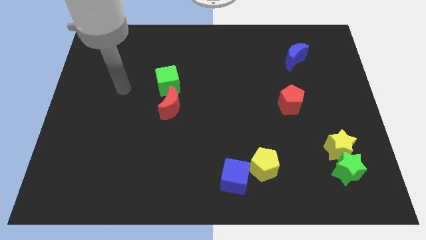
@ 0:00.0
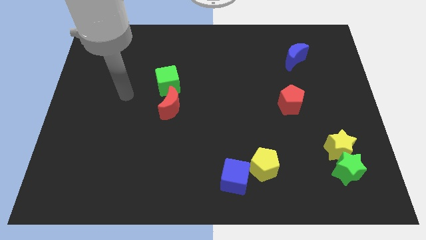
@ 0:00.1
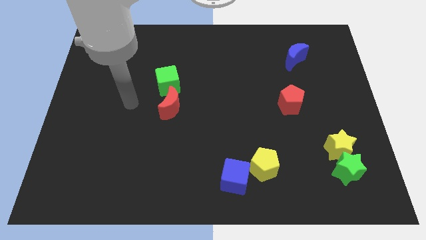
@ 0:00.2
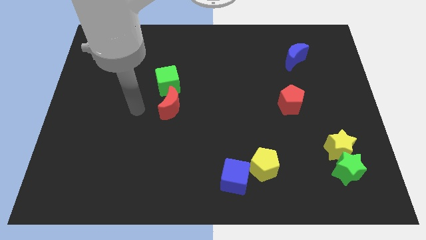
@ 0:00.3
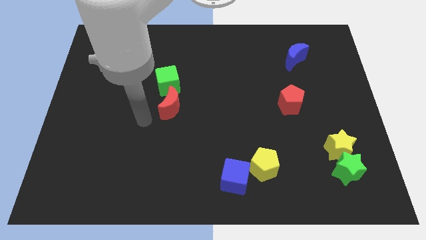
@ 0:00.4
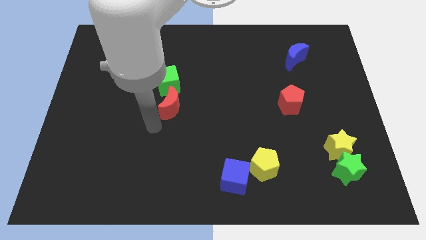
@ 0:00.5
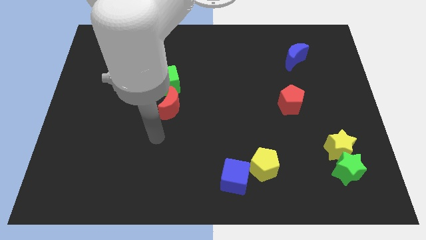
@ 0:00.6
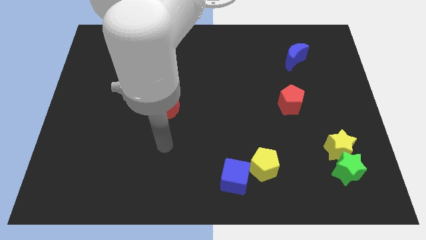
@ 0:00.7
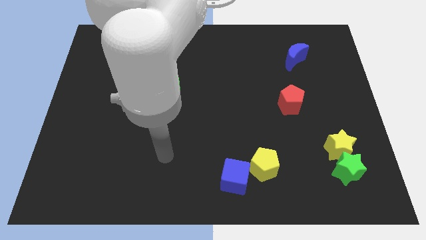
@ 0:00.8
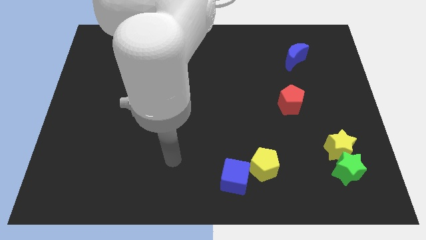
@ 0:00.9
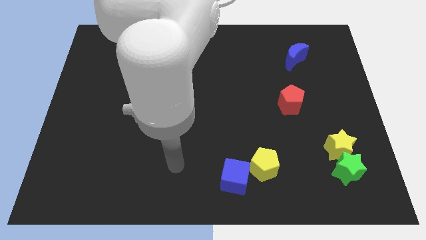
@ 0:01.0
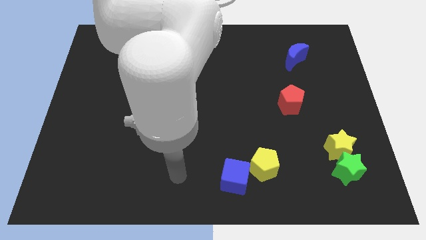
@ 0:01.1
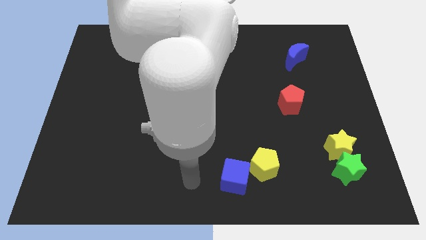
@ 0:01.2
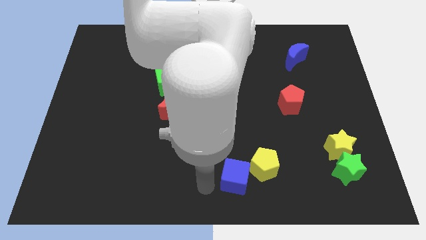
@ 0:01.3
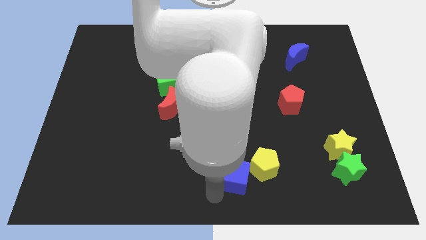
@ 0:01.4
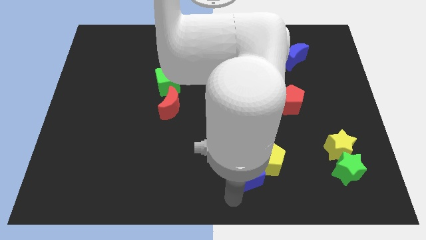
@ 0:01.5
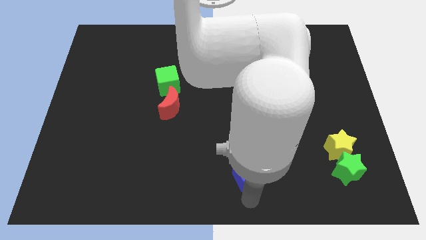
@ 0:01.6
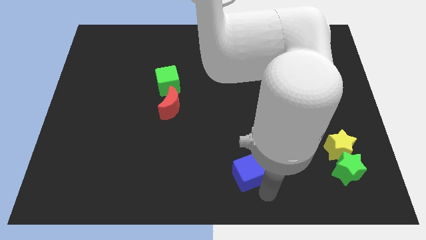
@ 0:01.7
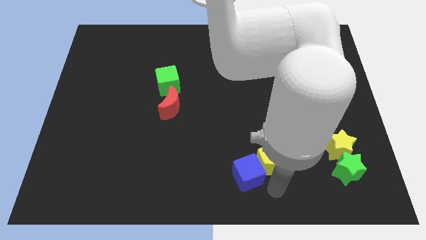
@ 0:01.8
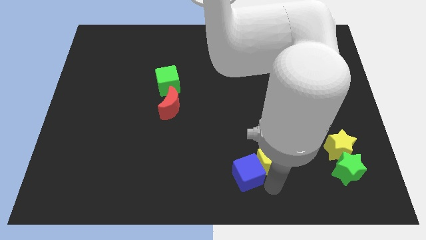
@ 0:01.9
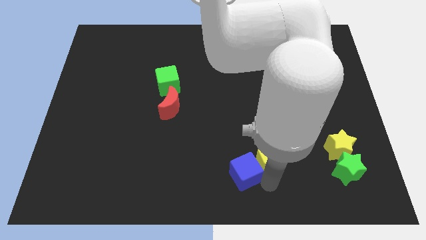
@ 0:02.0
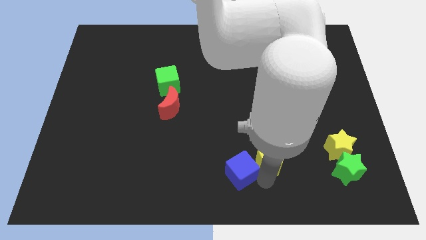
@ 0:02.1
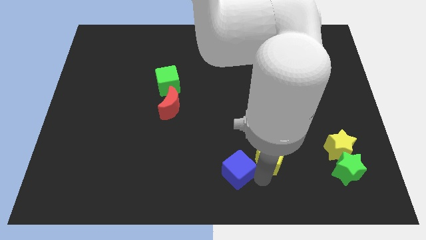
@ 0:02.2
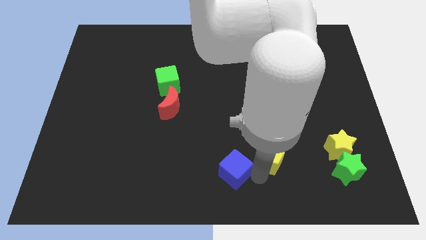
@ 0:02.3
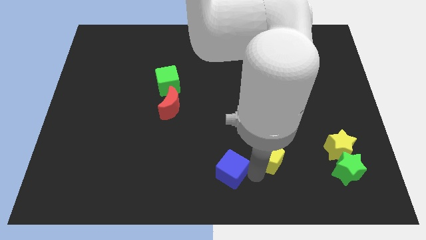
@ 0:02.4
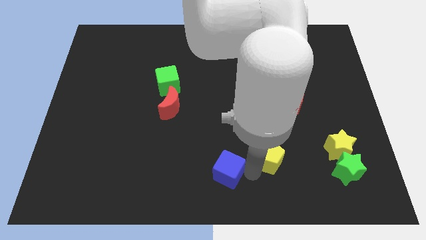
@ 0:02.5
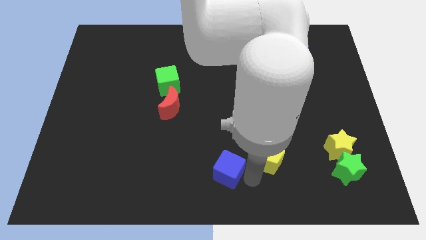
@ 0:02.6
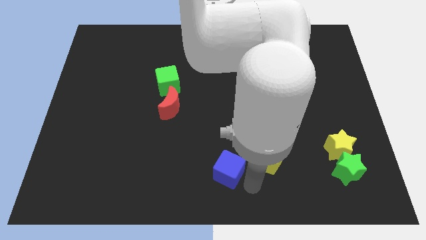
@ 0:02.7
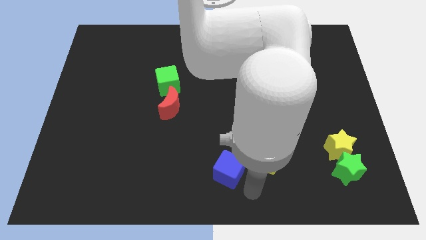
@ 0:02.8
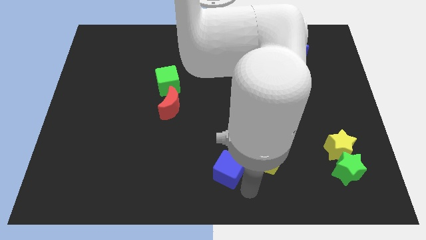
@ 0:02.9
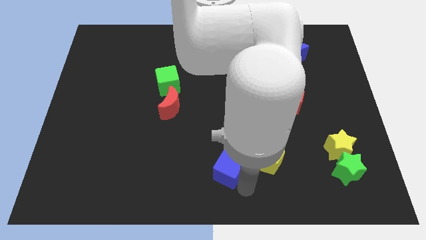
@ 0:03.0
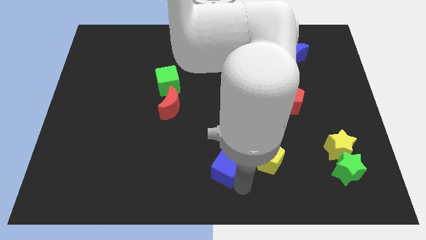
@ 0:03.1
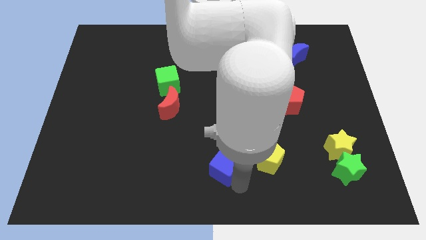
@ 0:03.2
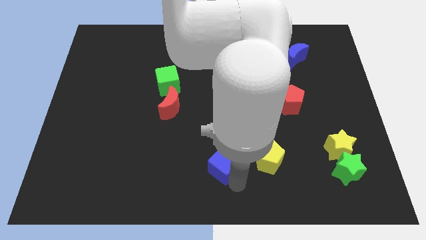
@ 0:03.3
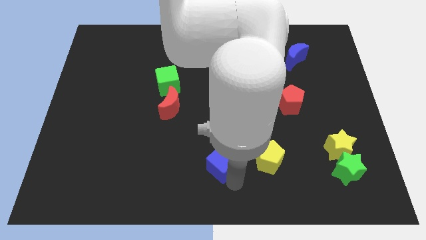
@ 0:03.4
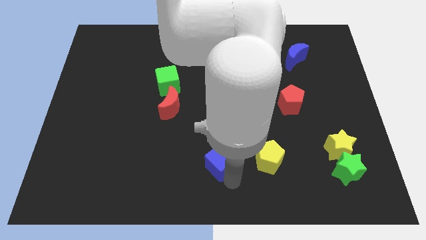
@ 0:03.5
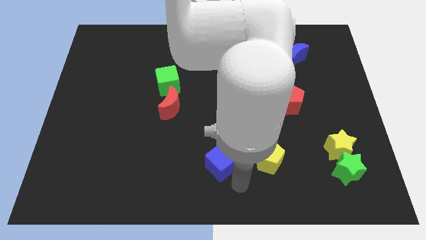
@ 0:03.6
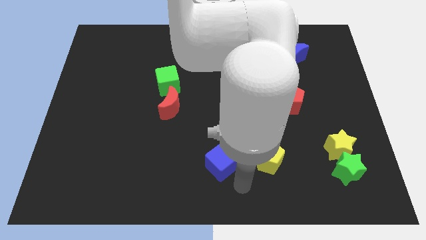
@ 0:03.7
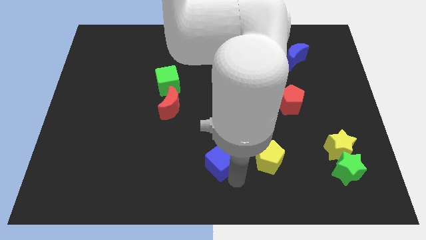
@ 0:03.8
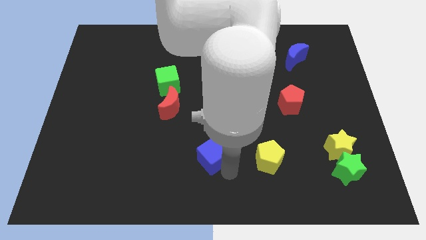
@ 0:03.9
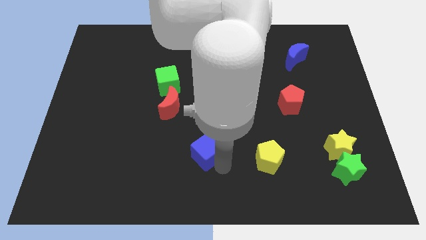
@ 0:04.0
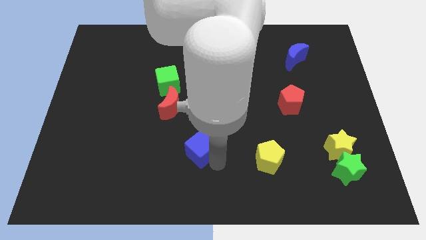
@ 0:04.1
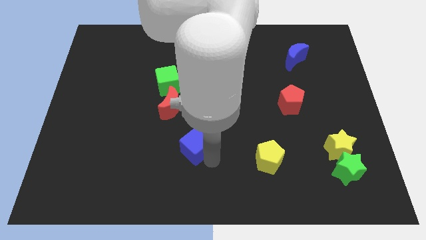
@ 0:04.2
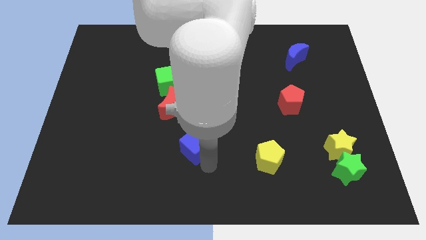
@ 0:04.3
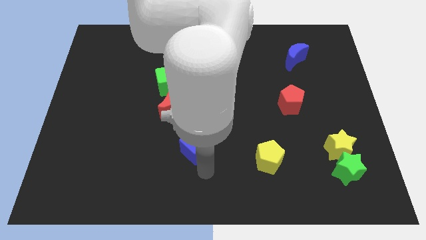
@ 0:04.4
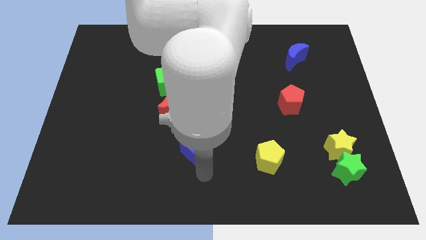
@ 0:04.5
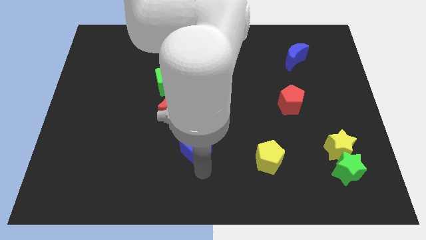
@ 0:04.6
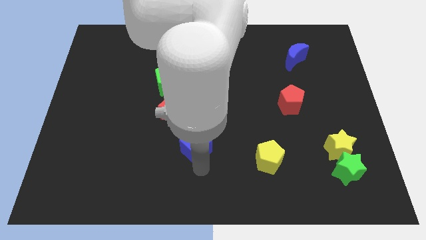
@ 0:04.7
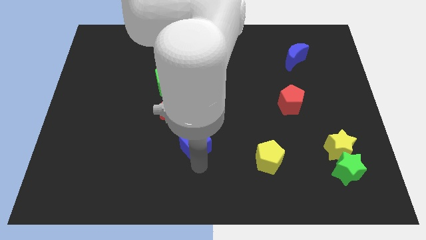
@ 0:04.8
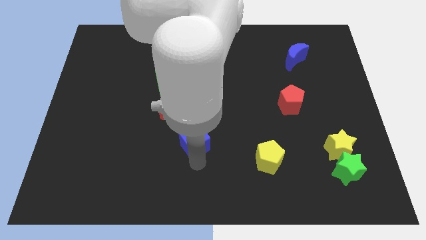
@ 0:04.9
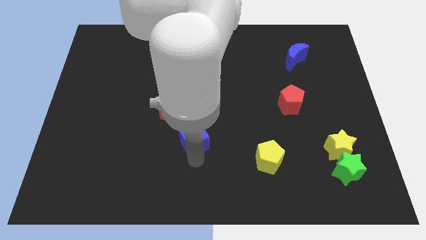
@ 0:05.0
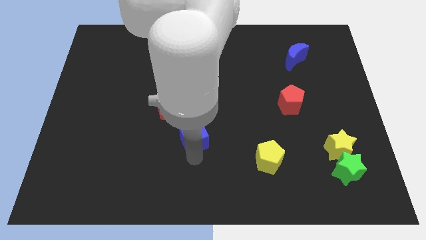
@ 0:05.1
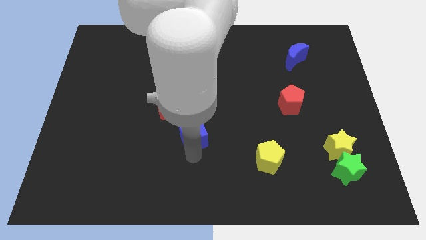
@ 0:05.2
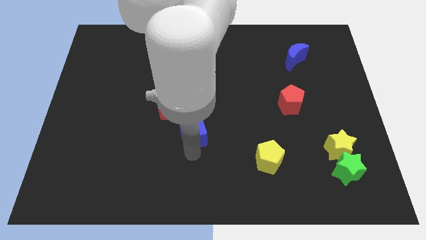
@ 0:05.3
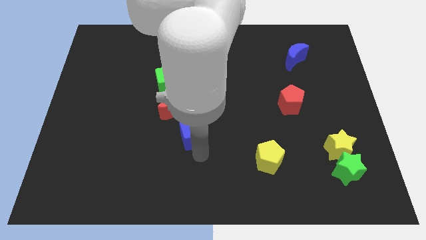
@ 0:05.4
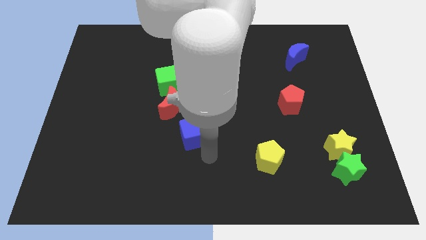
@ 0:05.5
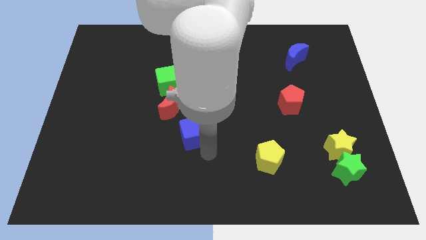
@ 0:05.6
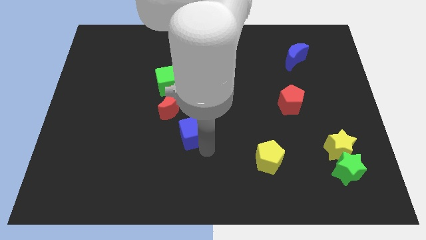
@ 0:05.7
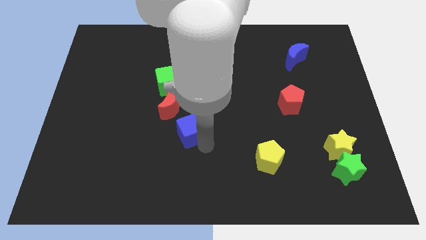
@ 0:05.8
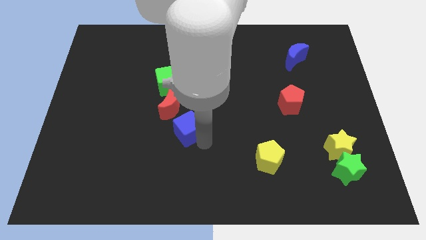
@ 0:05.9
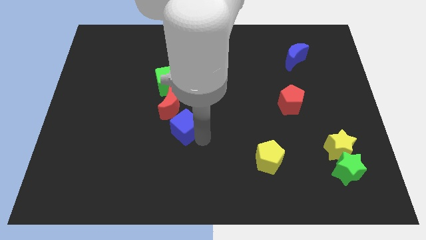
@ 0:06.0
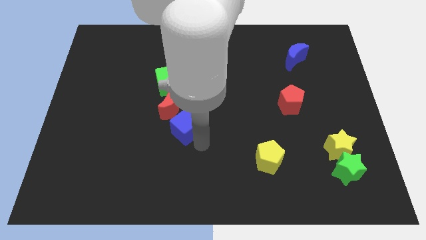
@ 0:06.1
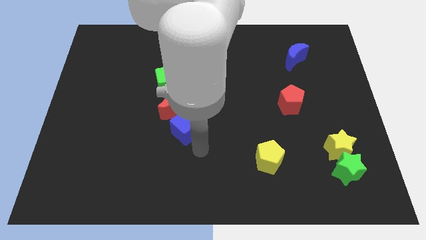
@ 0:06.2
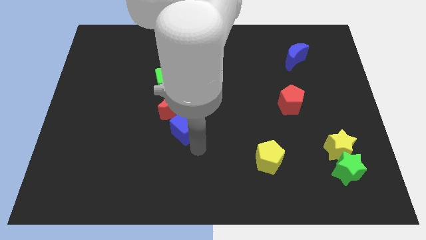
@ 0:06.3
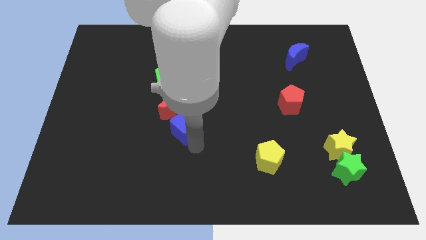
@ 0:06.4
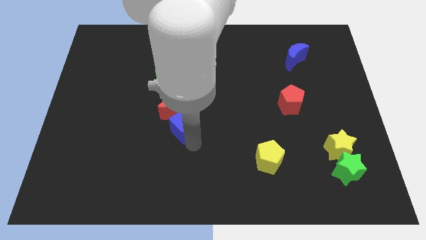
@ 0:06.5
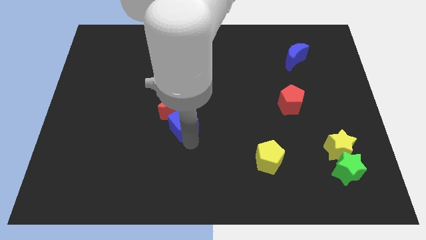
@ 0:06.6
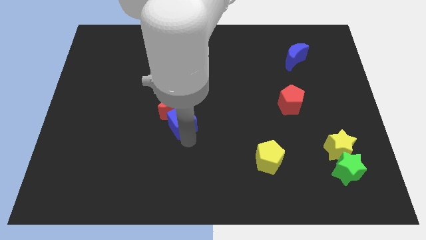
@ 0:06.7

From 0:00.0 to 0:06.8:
move the blue cube next to the red moon
